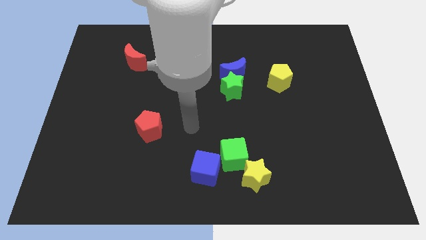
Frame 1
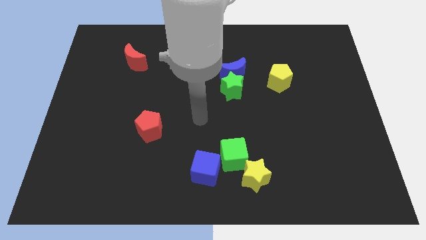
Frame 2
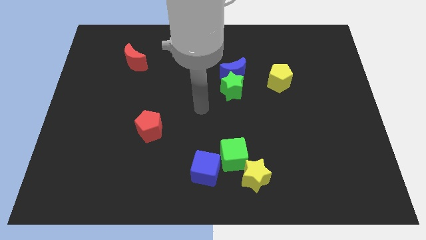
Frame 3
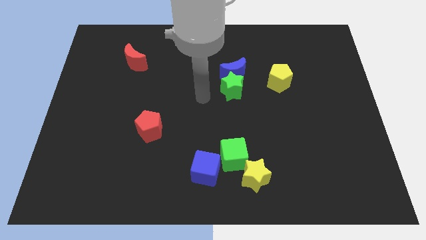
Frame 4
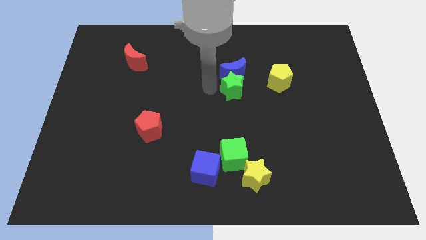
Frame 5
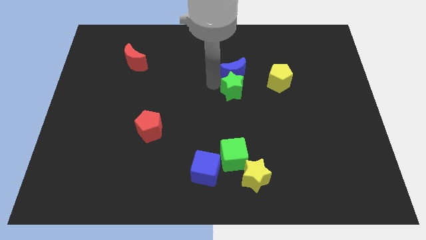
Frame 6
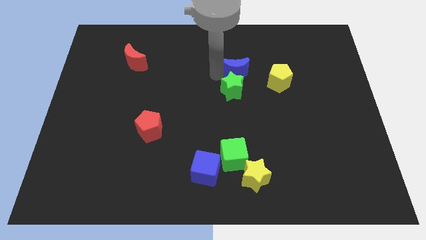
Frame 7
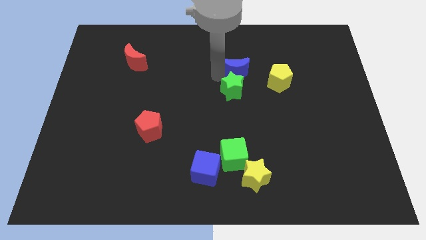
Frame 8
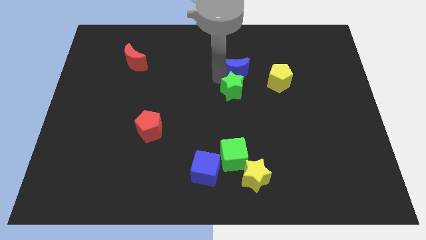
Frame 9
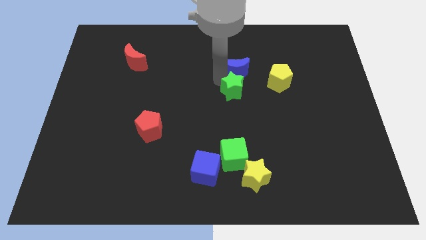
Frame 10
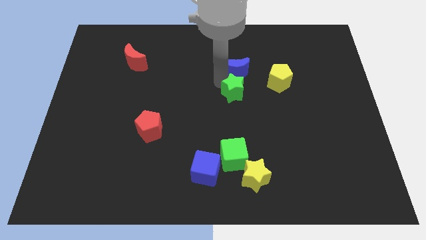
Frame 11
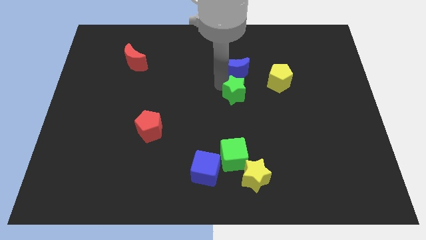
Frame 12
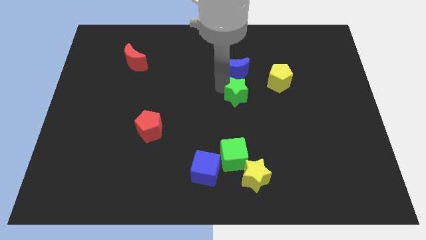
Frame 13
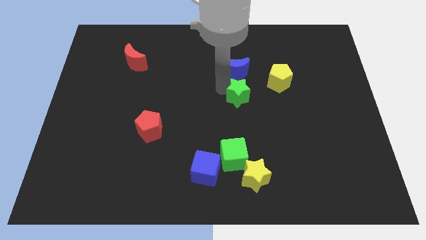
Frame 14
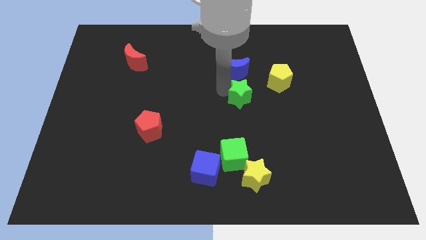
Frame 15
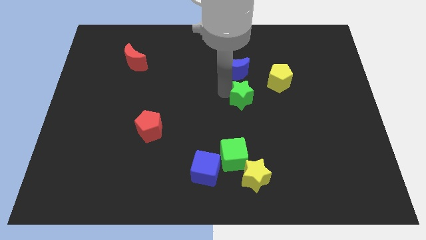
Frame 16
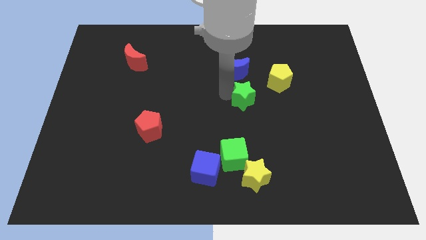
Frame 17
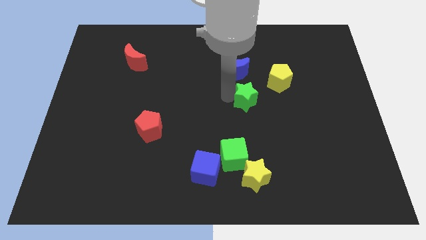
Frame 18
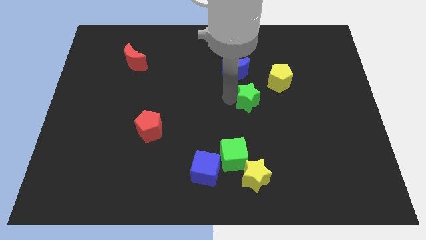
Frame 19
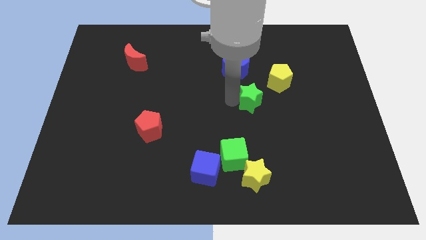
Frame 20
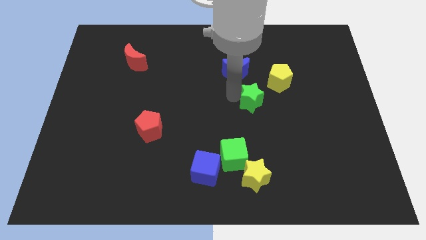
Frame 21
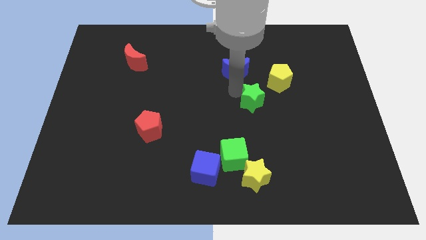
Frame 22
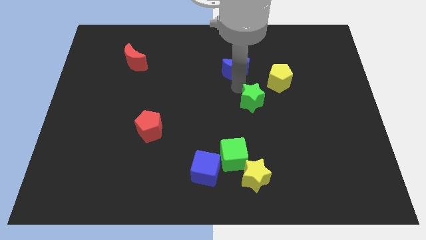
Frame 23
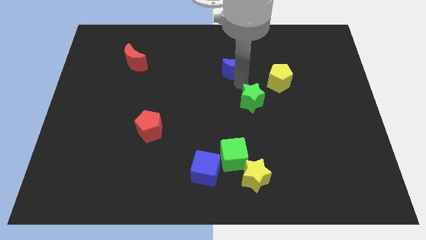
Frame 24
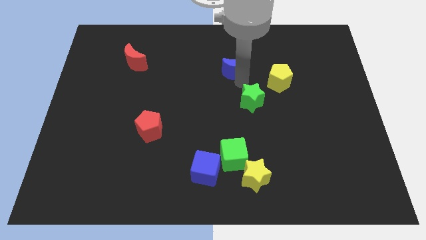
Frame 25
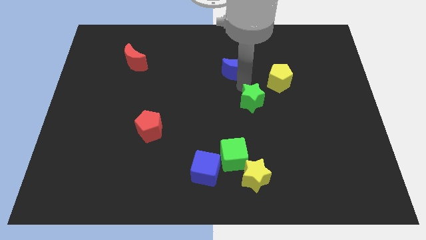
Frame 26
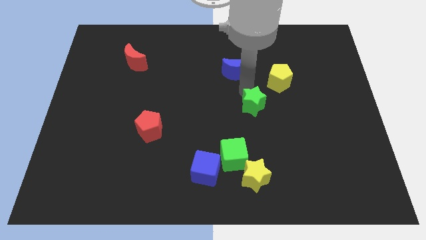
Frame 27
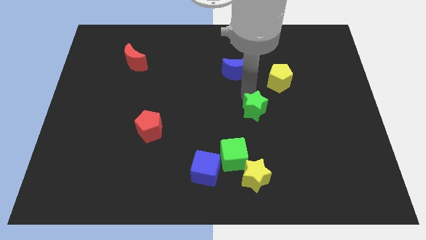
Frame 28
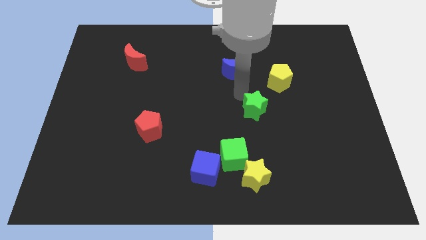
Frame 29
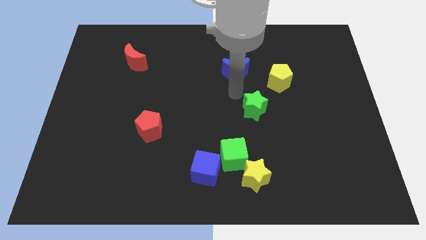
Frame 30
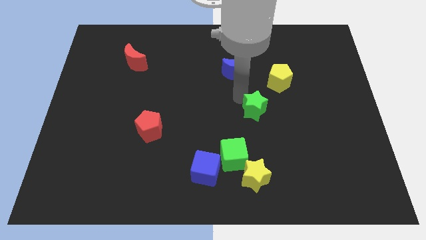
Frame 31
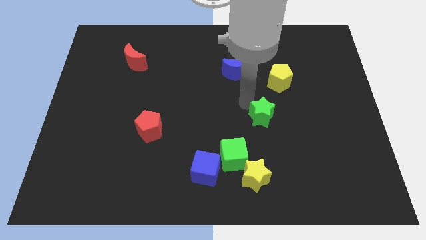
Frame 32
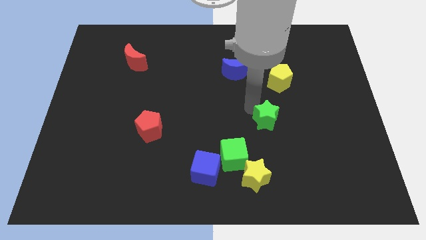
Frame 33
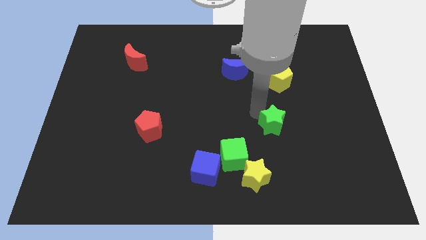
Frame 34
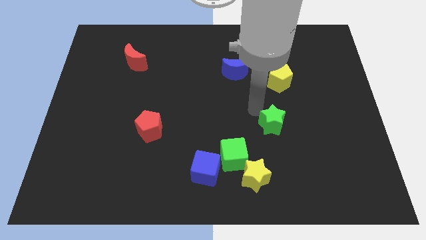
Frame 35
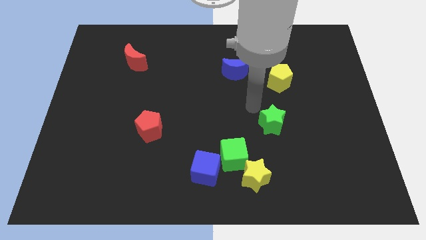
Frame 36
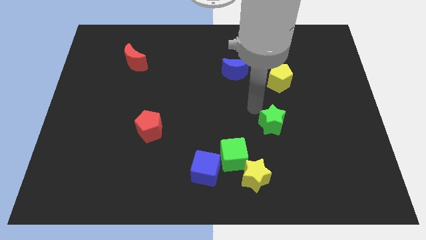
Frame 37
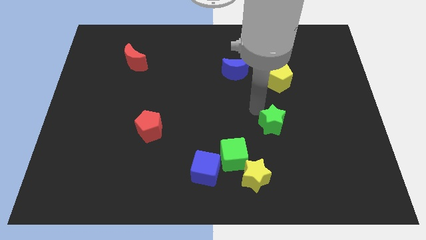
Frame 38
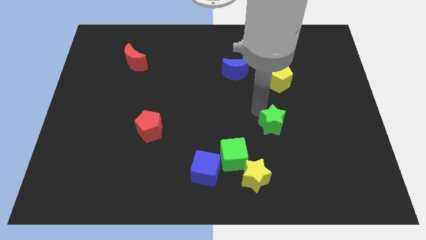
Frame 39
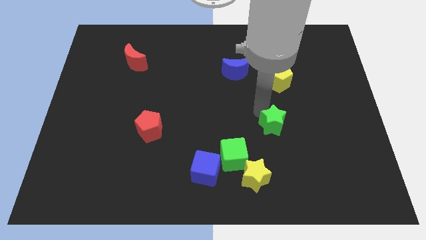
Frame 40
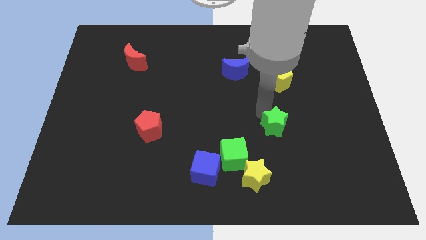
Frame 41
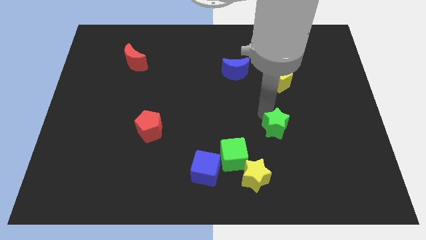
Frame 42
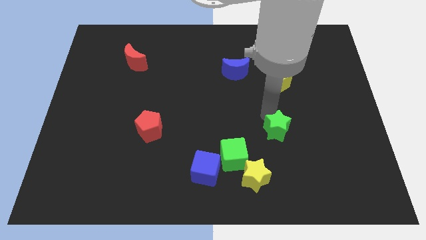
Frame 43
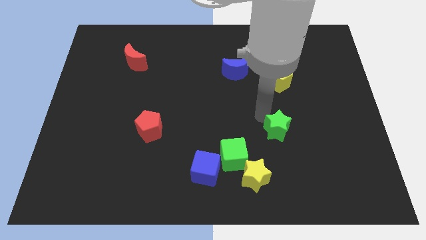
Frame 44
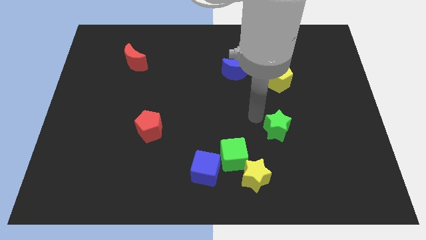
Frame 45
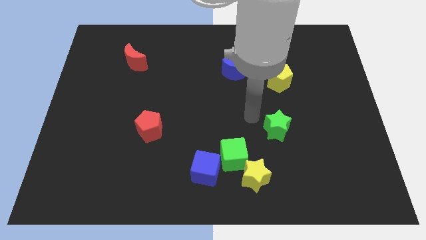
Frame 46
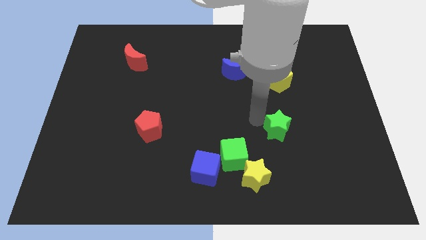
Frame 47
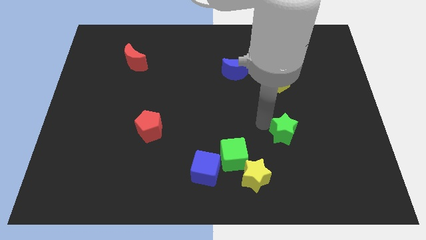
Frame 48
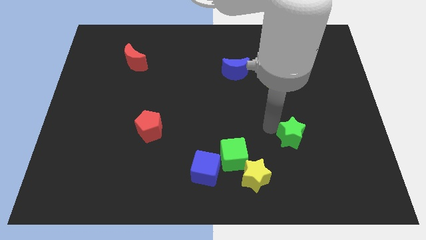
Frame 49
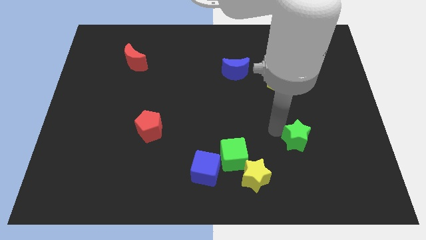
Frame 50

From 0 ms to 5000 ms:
push the green star downwards and to the right diagonally

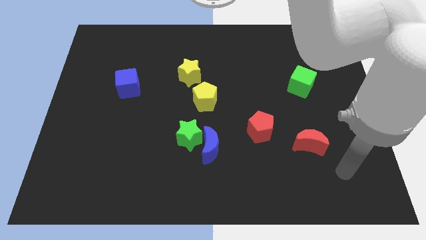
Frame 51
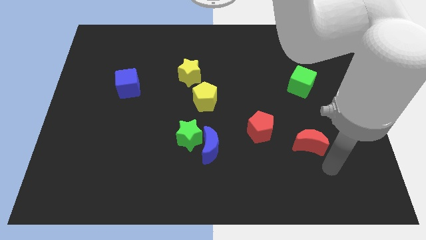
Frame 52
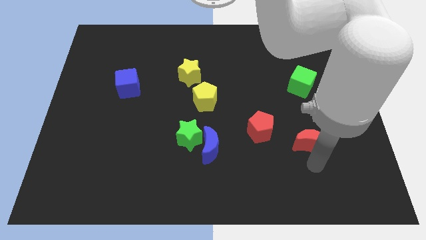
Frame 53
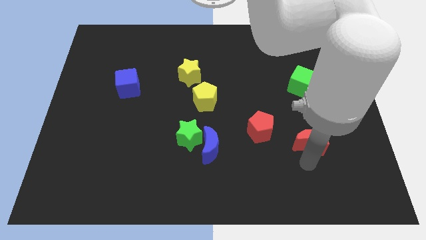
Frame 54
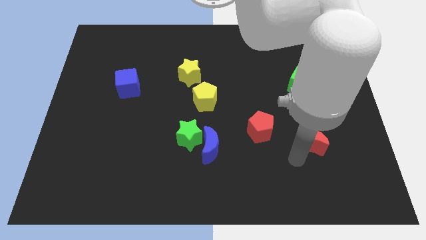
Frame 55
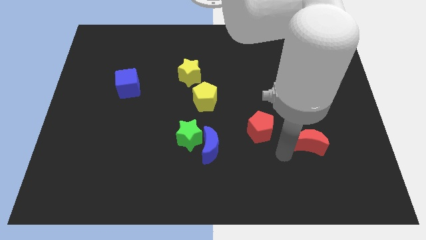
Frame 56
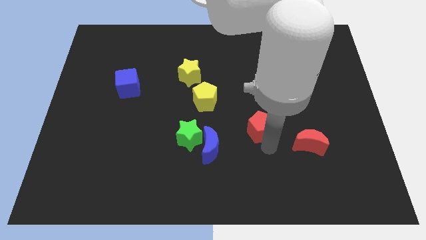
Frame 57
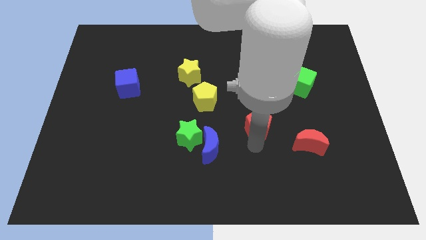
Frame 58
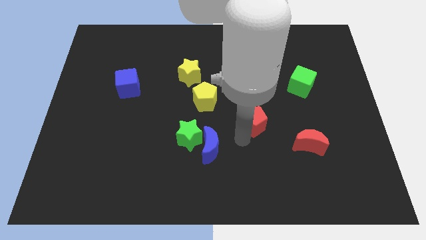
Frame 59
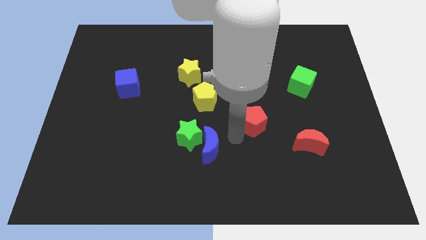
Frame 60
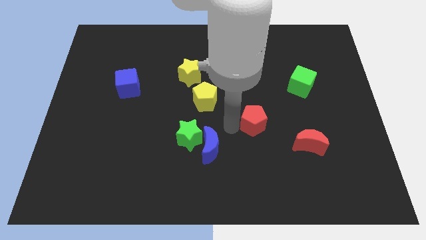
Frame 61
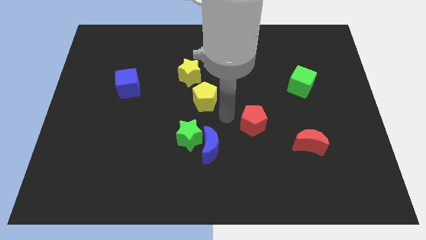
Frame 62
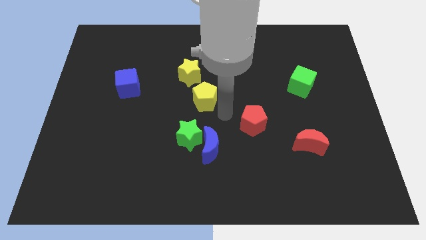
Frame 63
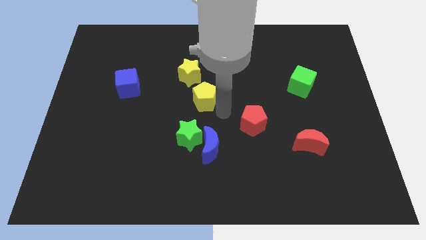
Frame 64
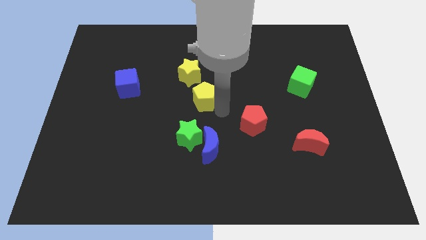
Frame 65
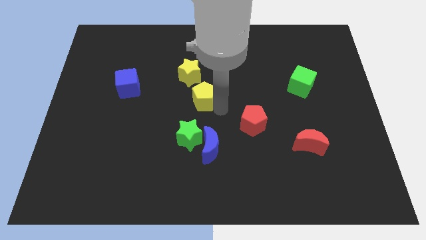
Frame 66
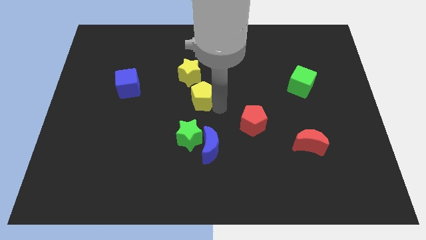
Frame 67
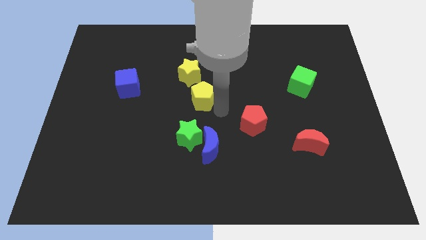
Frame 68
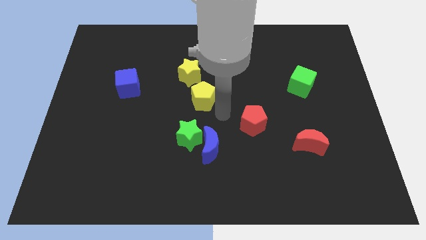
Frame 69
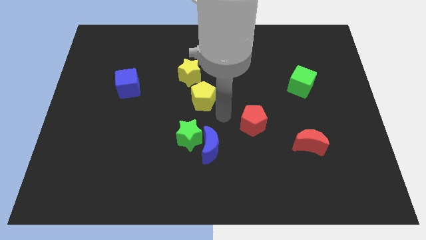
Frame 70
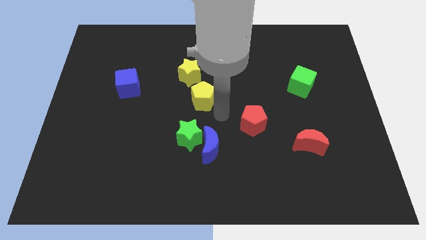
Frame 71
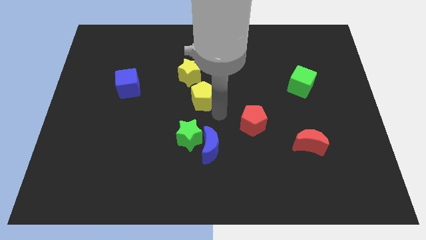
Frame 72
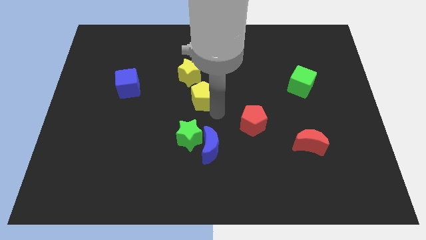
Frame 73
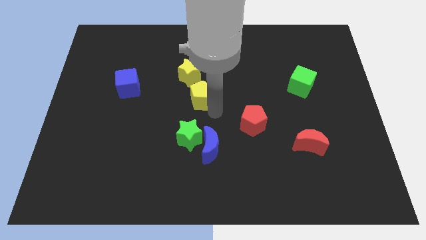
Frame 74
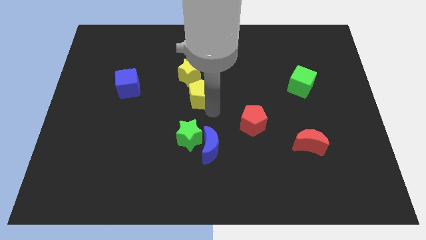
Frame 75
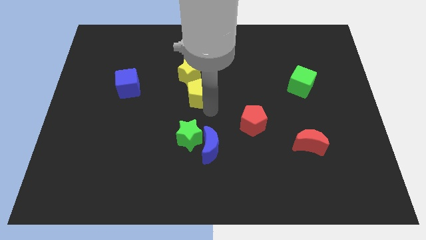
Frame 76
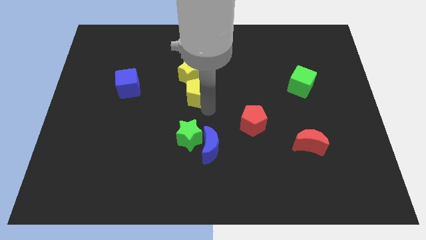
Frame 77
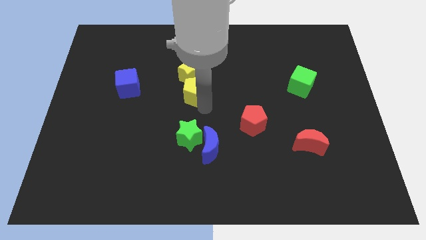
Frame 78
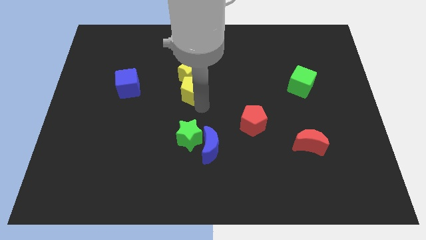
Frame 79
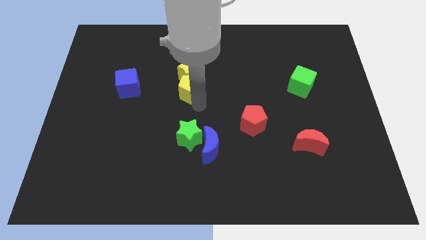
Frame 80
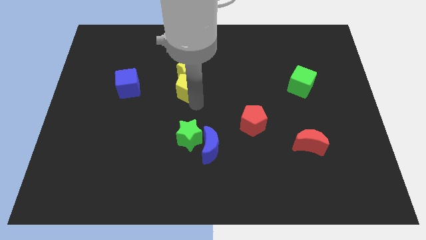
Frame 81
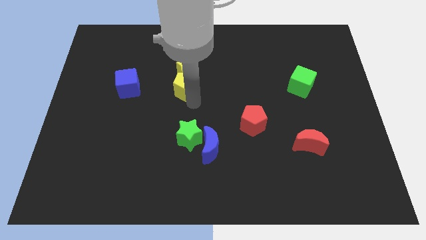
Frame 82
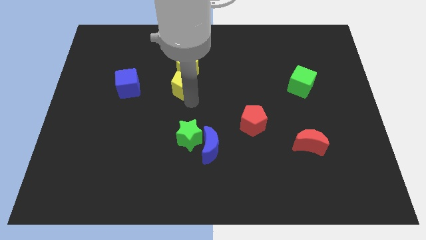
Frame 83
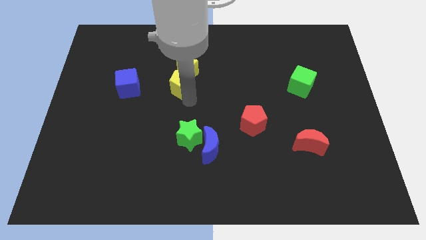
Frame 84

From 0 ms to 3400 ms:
push the yellow pentagon somewhat upwards and to the left
